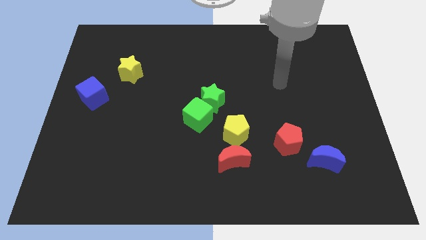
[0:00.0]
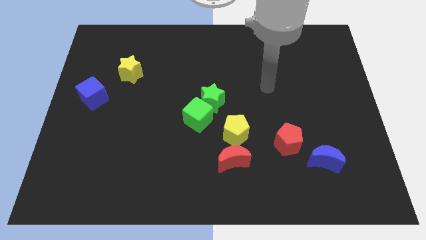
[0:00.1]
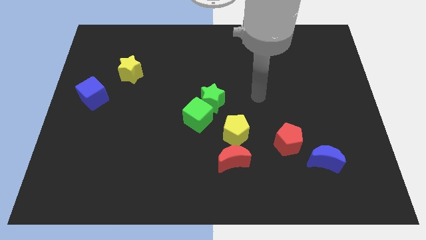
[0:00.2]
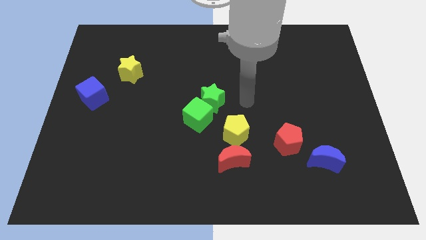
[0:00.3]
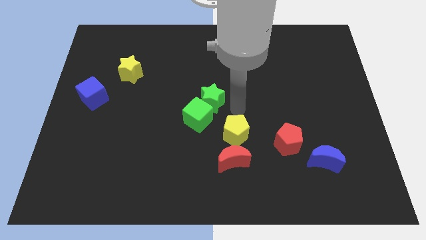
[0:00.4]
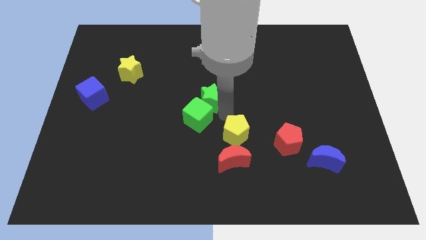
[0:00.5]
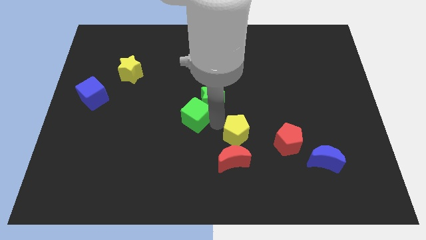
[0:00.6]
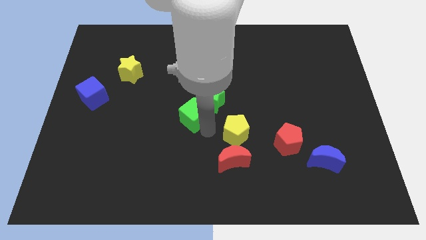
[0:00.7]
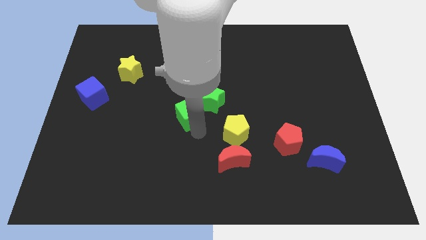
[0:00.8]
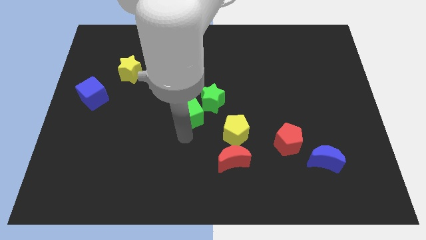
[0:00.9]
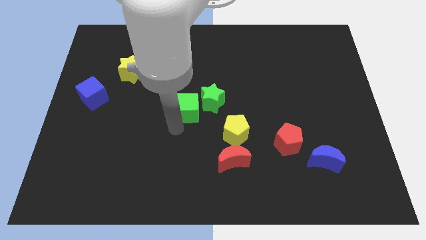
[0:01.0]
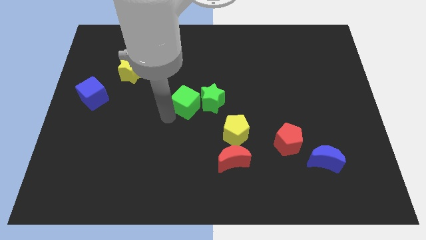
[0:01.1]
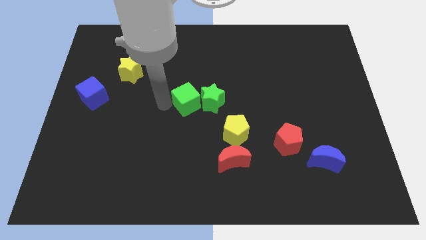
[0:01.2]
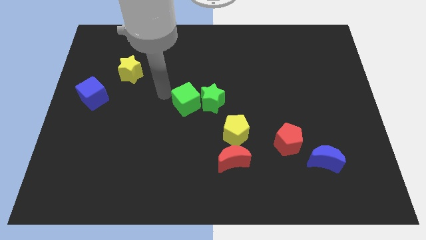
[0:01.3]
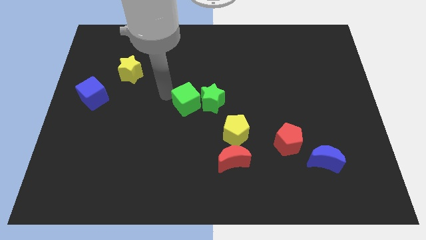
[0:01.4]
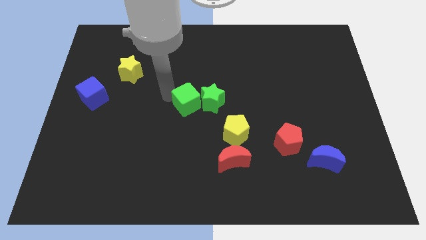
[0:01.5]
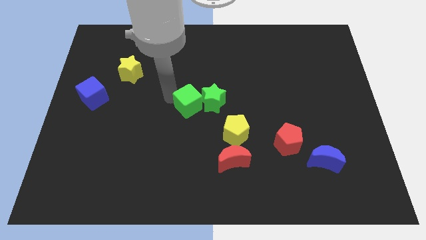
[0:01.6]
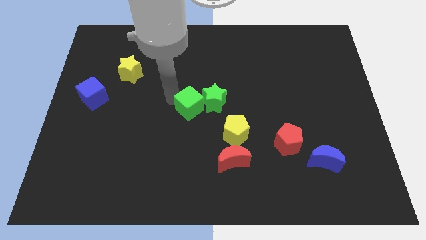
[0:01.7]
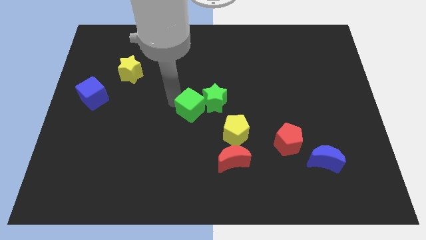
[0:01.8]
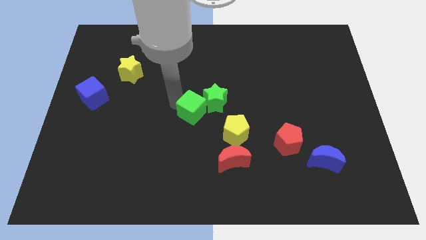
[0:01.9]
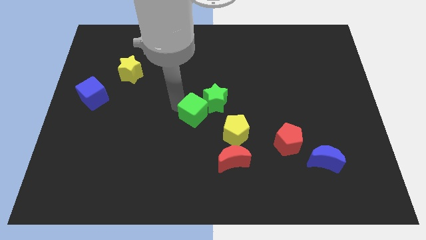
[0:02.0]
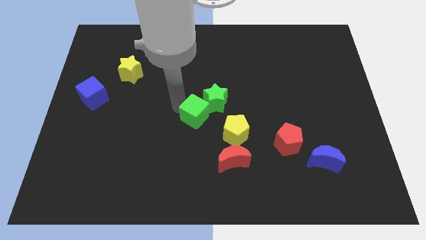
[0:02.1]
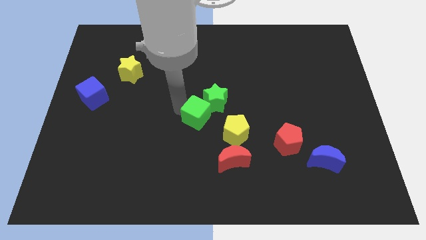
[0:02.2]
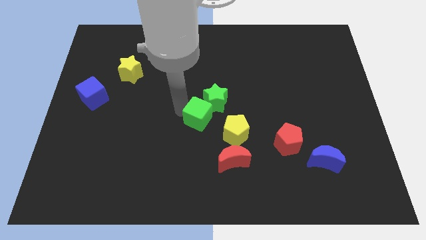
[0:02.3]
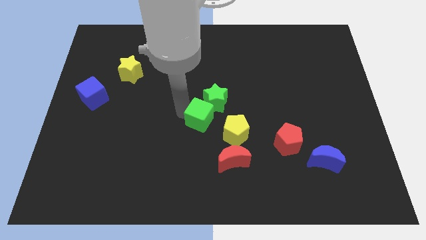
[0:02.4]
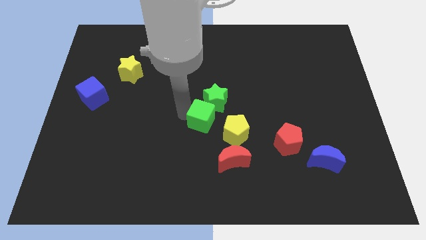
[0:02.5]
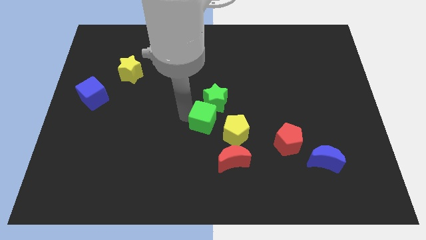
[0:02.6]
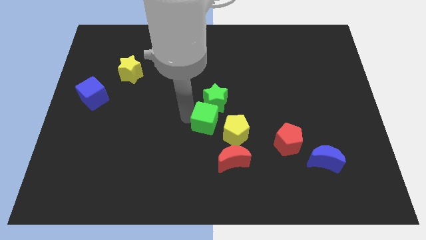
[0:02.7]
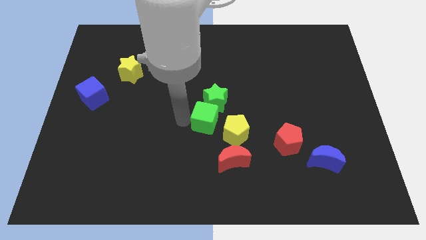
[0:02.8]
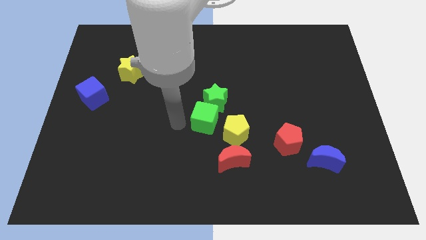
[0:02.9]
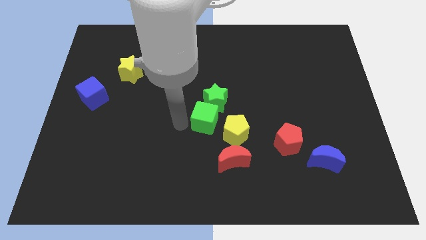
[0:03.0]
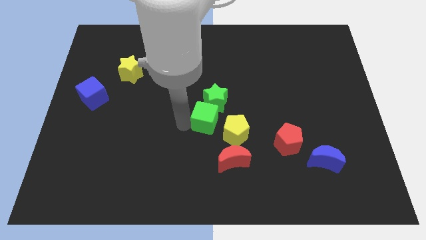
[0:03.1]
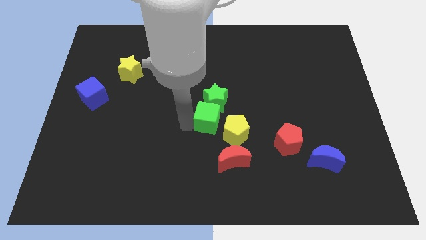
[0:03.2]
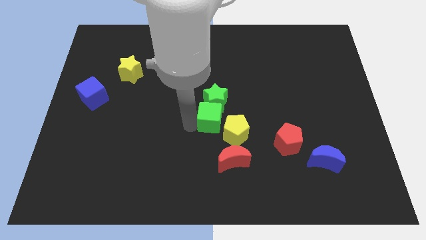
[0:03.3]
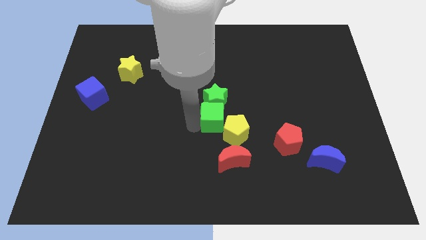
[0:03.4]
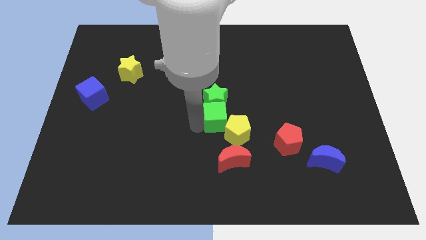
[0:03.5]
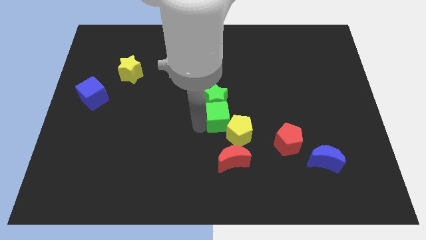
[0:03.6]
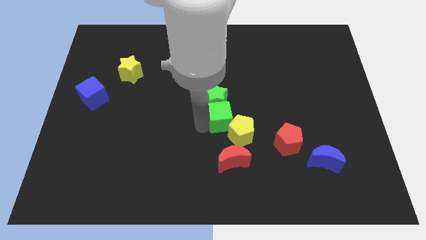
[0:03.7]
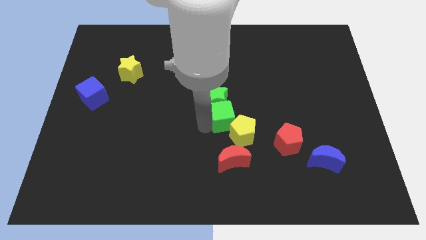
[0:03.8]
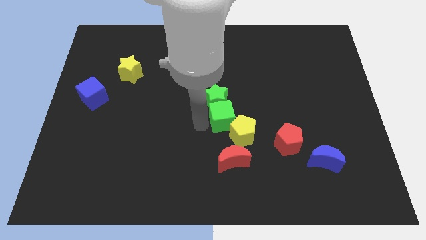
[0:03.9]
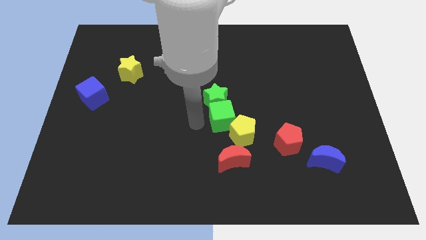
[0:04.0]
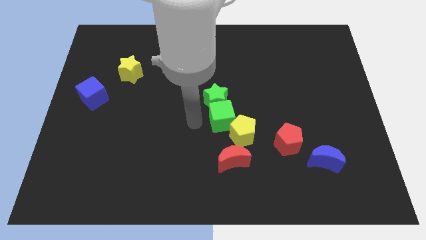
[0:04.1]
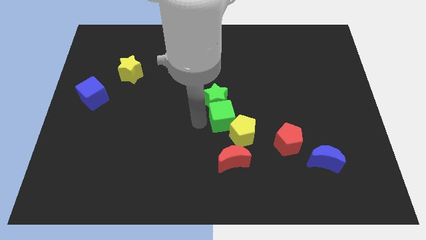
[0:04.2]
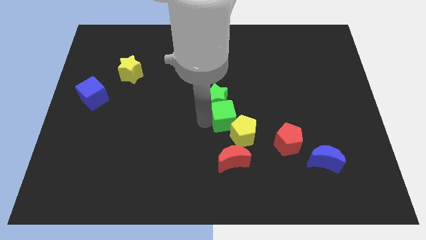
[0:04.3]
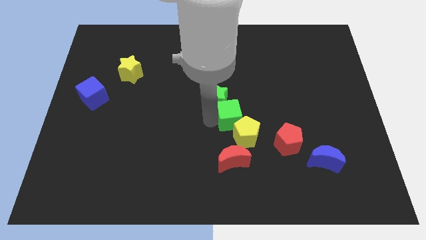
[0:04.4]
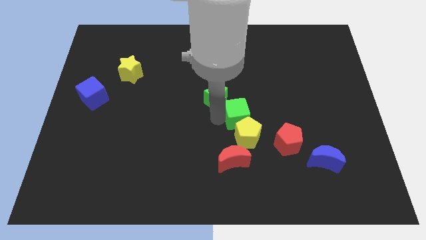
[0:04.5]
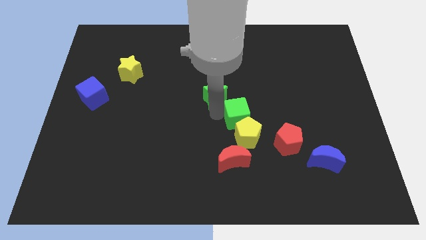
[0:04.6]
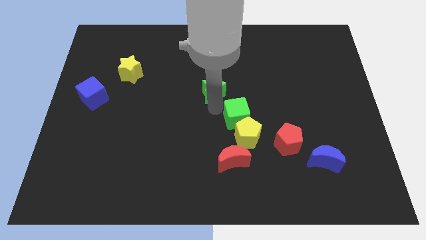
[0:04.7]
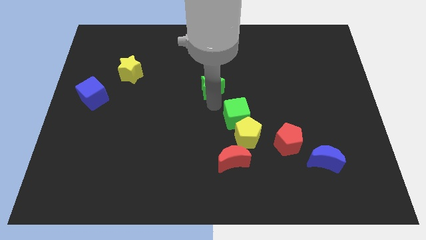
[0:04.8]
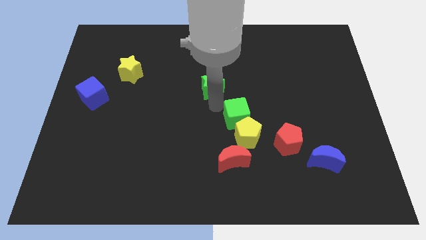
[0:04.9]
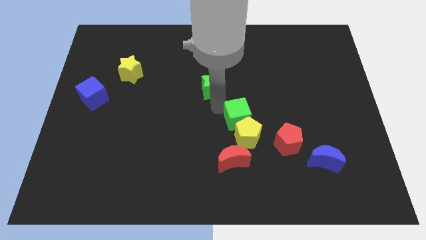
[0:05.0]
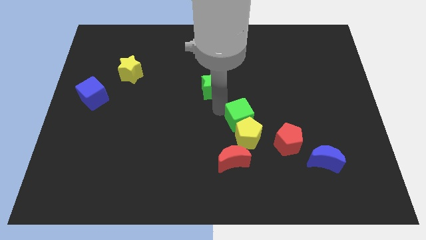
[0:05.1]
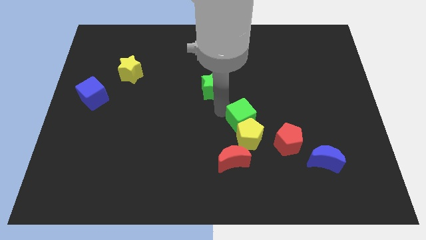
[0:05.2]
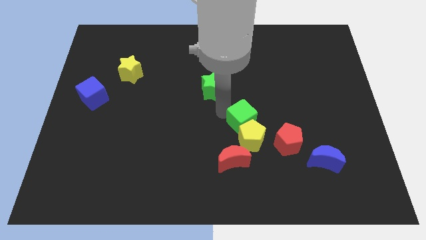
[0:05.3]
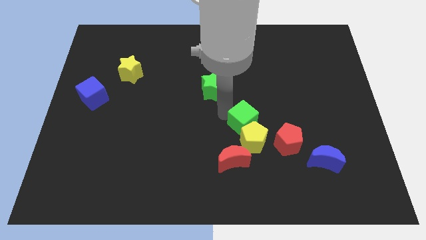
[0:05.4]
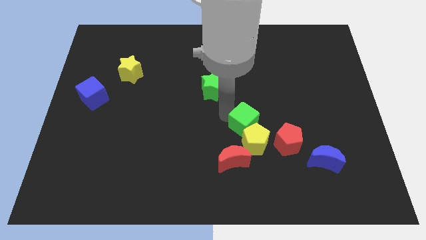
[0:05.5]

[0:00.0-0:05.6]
push the green cube a little bit diagonally downwards and to the right

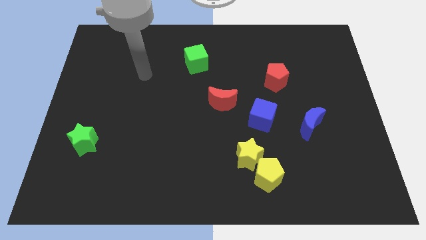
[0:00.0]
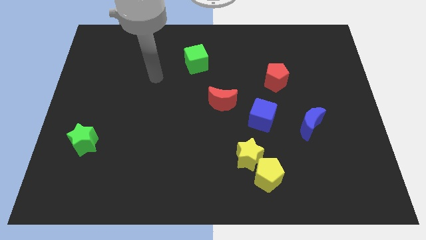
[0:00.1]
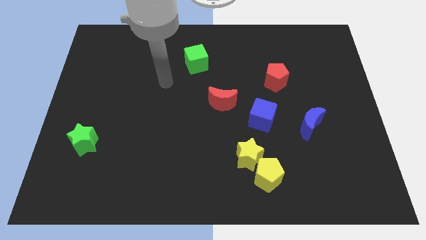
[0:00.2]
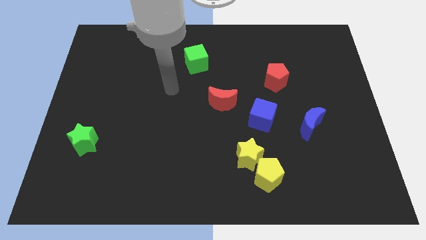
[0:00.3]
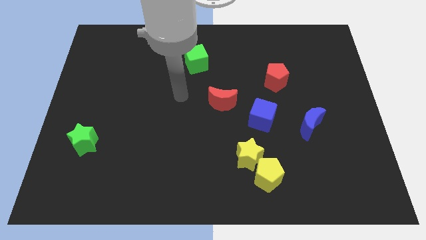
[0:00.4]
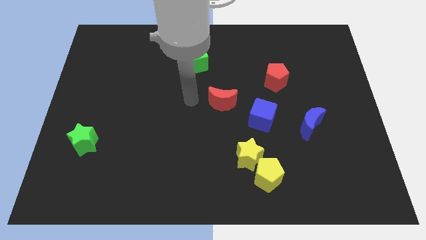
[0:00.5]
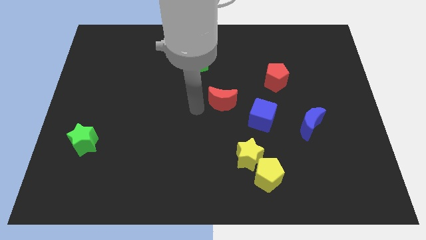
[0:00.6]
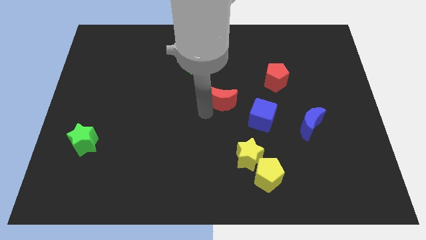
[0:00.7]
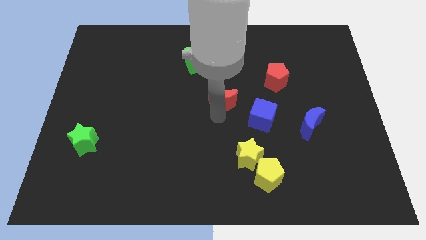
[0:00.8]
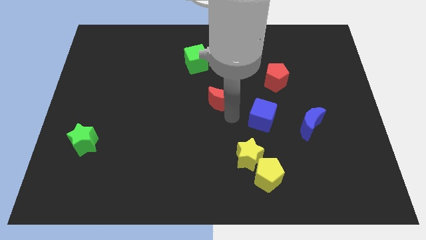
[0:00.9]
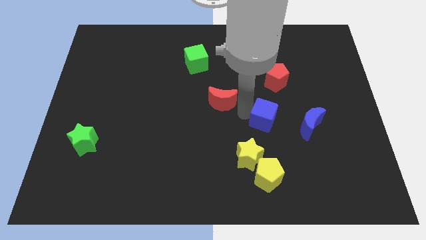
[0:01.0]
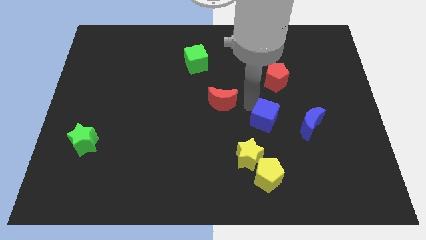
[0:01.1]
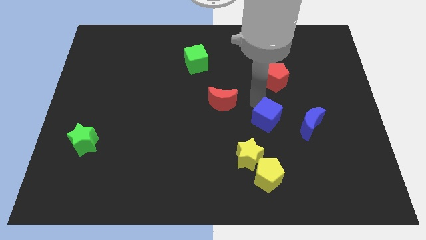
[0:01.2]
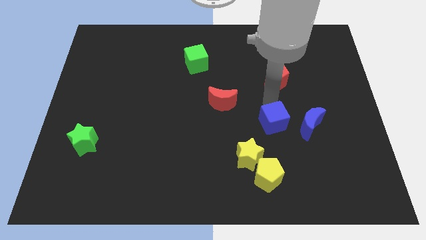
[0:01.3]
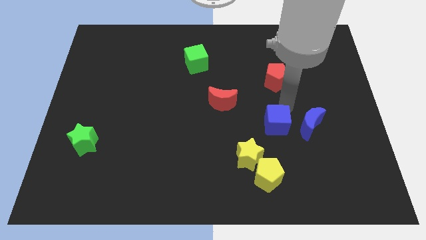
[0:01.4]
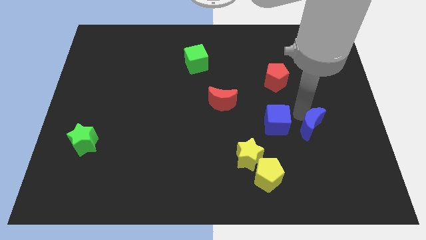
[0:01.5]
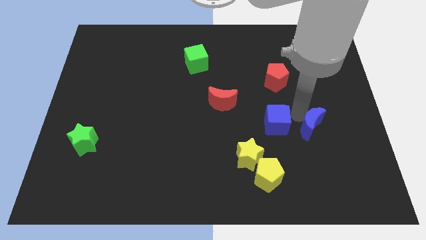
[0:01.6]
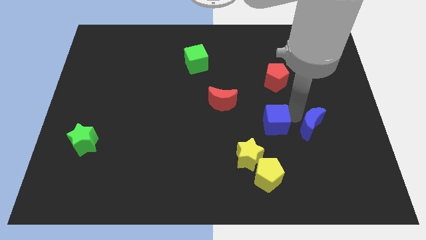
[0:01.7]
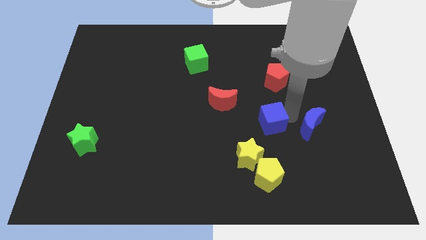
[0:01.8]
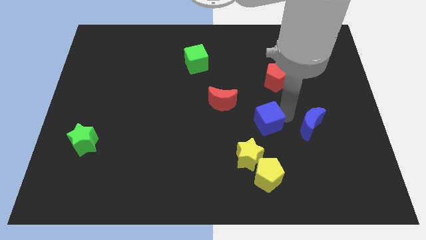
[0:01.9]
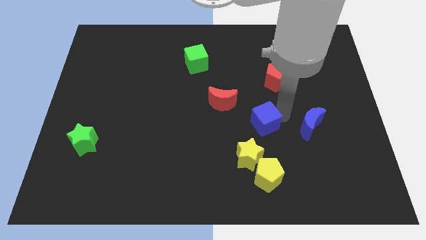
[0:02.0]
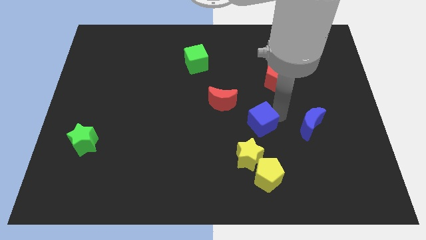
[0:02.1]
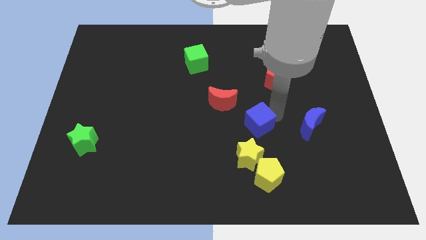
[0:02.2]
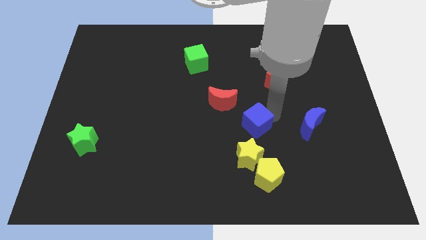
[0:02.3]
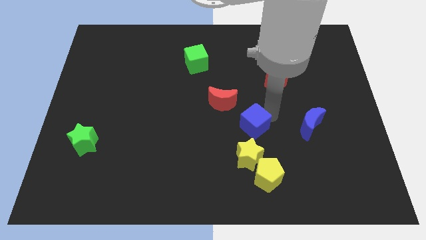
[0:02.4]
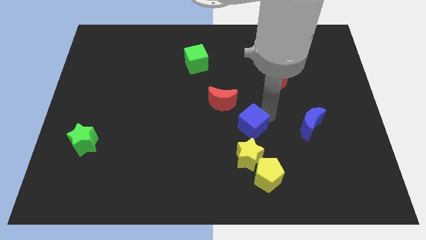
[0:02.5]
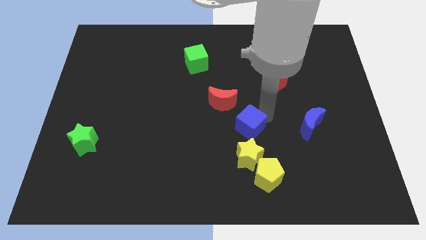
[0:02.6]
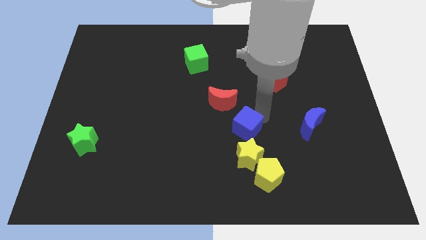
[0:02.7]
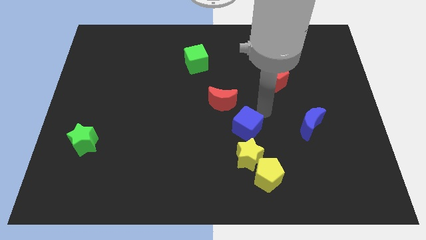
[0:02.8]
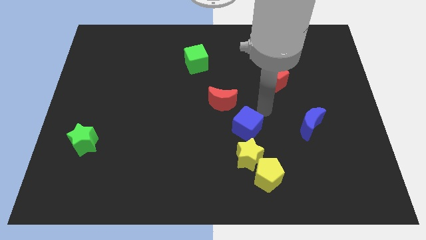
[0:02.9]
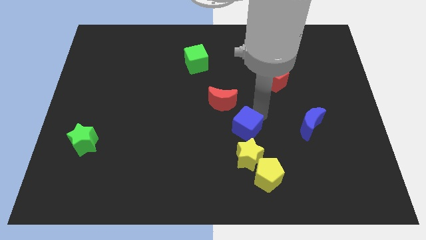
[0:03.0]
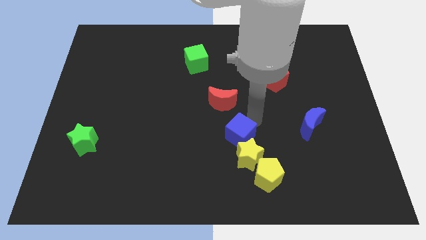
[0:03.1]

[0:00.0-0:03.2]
slide the blue cube slightly downwards and to the left
